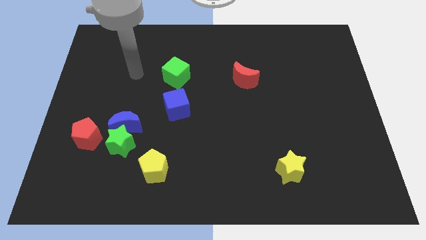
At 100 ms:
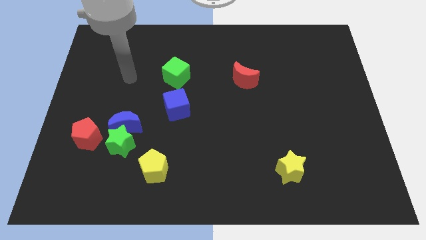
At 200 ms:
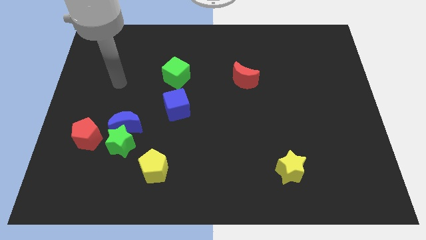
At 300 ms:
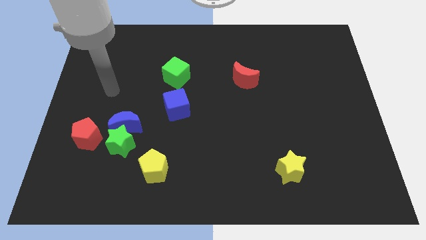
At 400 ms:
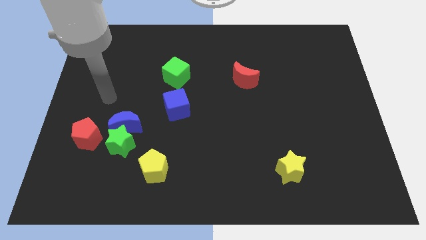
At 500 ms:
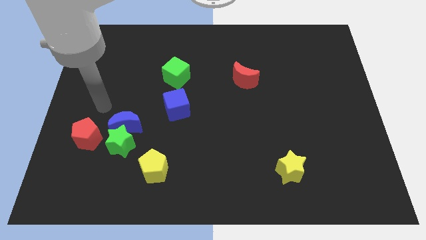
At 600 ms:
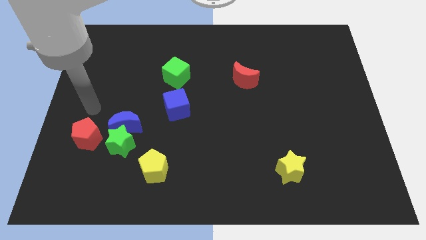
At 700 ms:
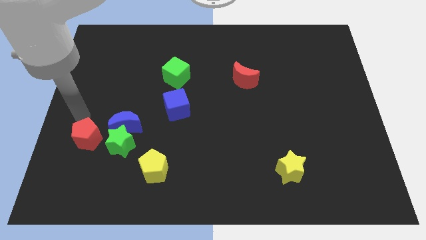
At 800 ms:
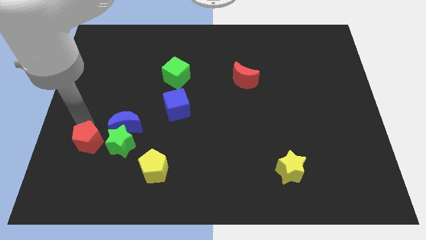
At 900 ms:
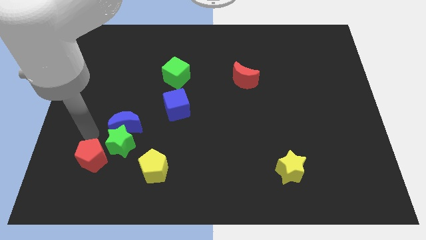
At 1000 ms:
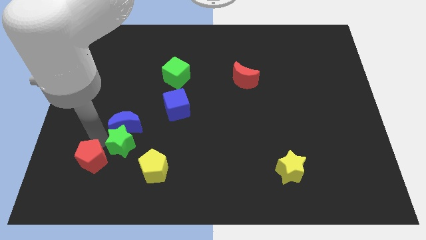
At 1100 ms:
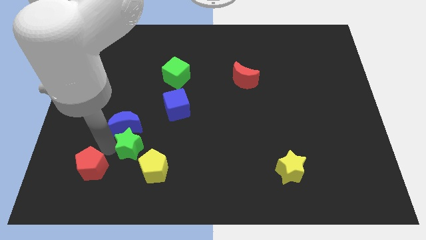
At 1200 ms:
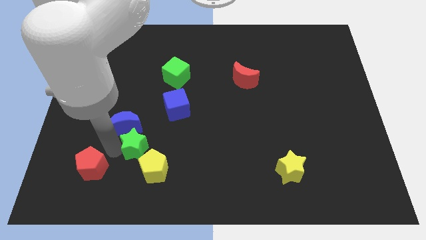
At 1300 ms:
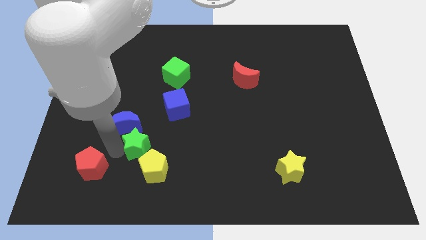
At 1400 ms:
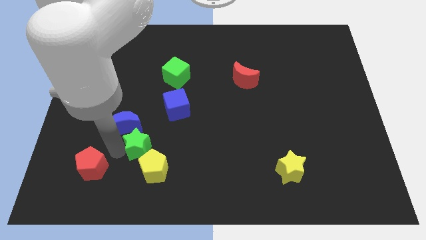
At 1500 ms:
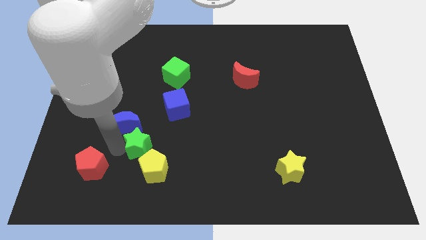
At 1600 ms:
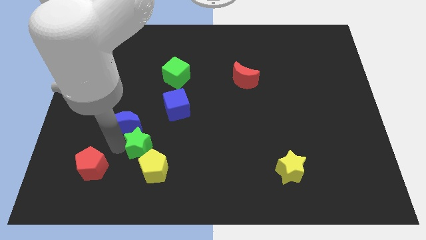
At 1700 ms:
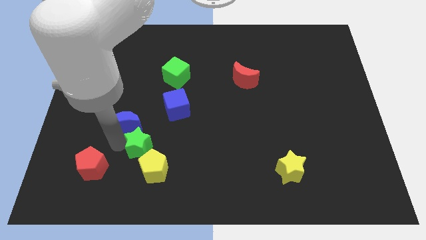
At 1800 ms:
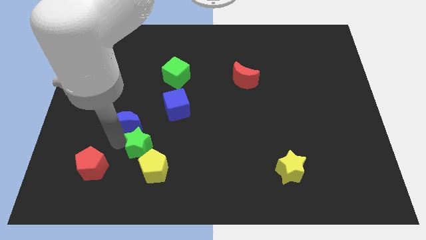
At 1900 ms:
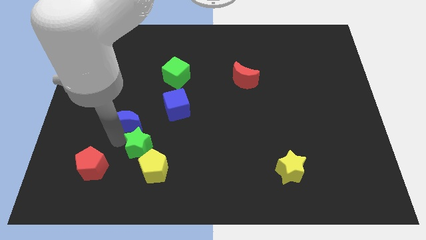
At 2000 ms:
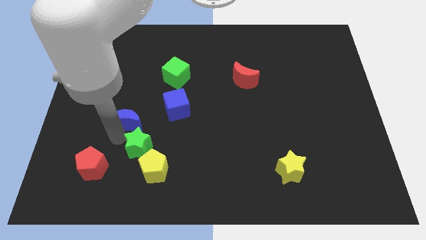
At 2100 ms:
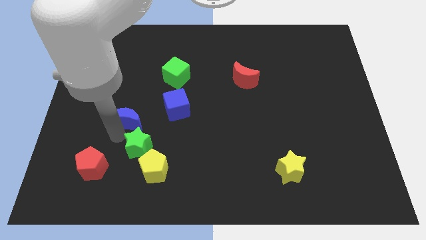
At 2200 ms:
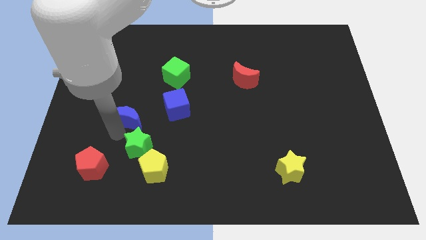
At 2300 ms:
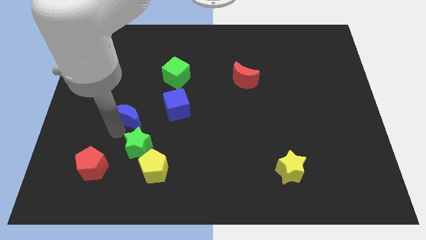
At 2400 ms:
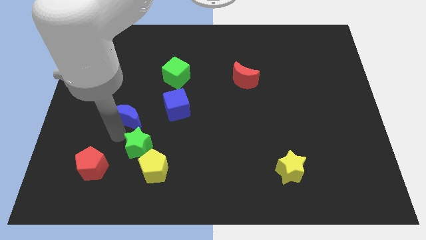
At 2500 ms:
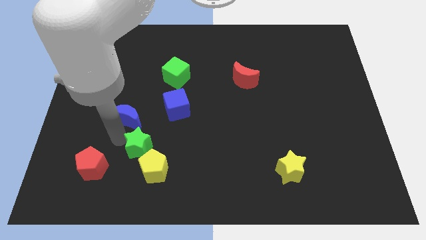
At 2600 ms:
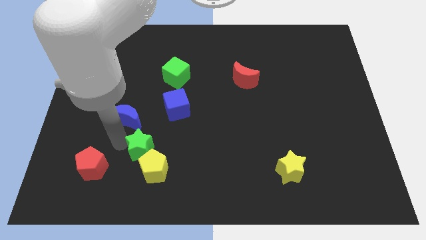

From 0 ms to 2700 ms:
separate the blue moon from the green star and red pentagon

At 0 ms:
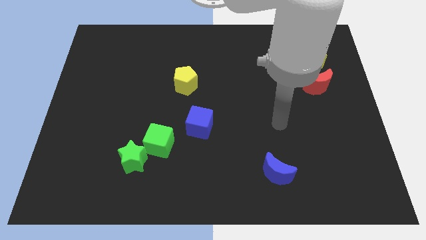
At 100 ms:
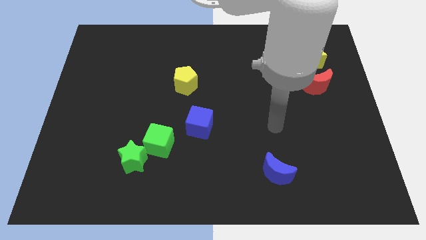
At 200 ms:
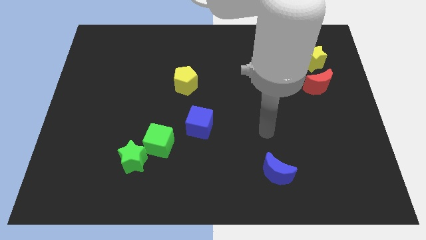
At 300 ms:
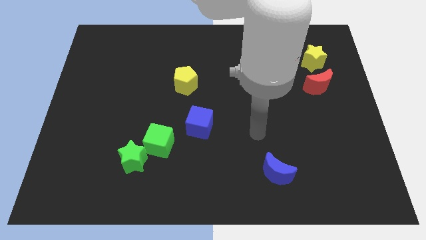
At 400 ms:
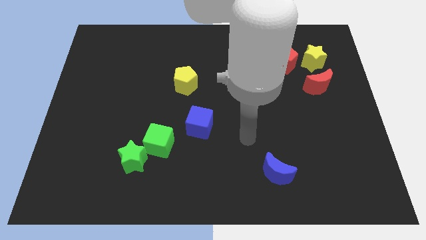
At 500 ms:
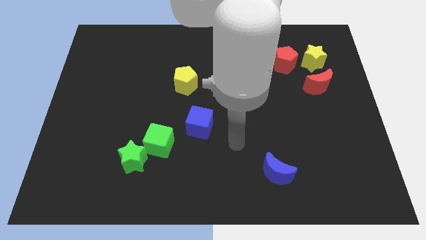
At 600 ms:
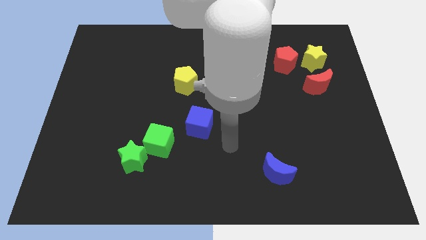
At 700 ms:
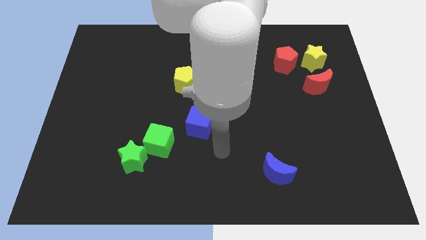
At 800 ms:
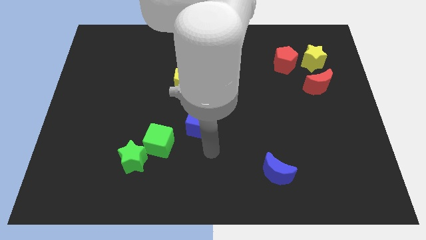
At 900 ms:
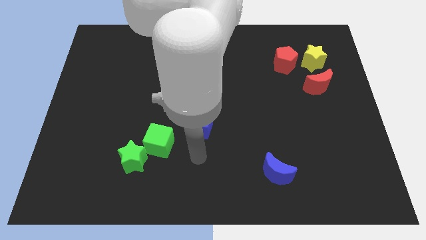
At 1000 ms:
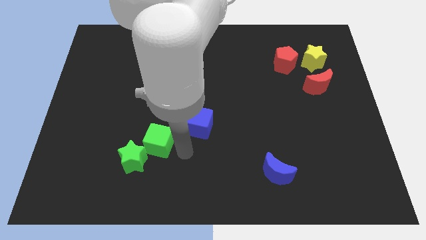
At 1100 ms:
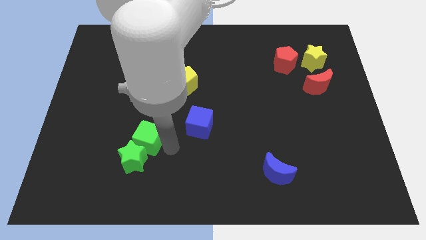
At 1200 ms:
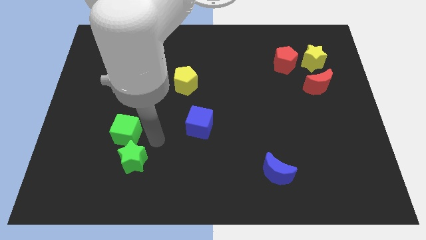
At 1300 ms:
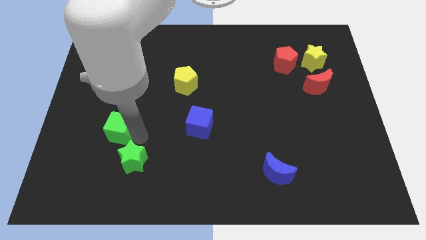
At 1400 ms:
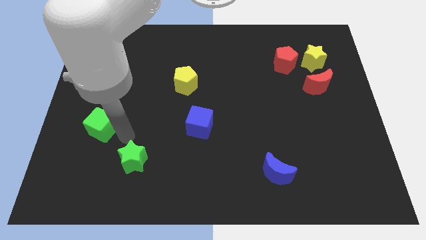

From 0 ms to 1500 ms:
pull the green star apart from the green cube

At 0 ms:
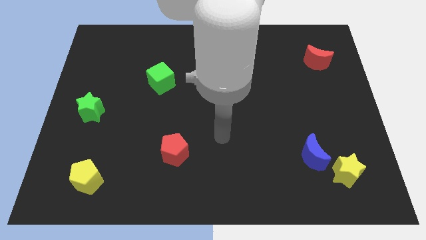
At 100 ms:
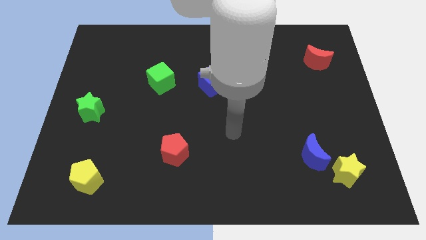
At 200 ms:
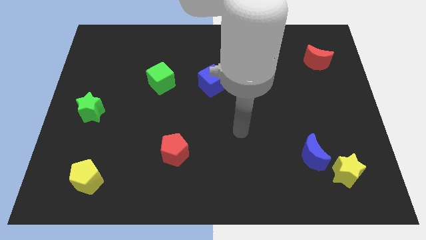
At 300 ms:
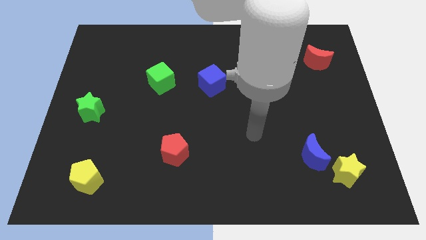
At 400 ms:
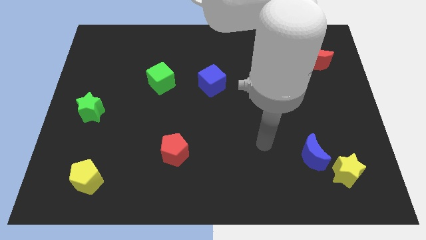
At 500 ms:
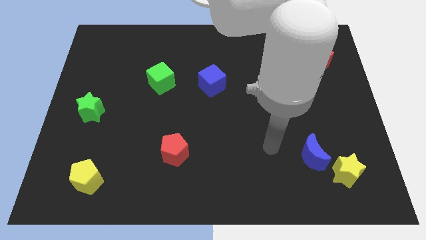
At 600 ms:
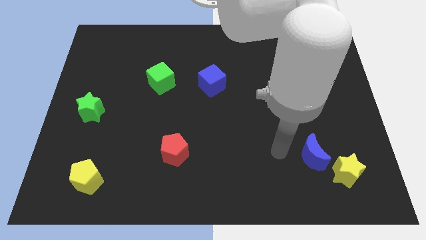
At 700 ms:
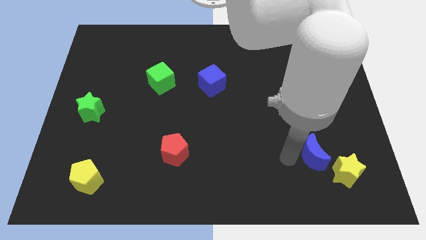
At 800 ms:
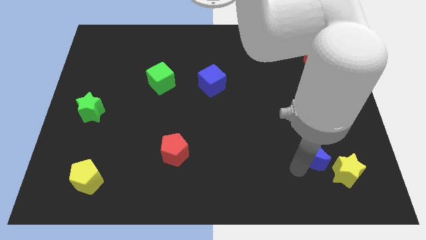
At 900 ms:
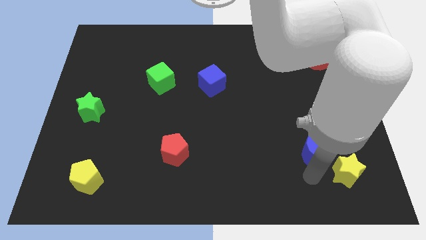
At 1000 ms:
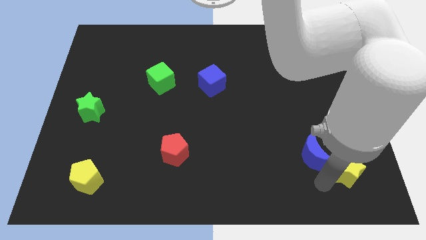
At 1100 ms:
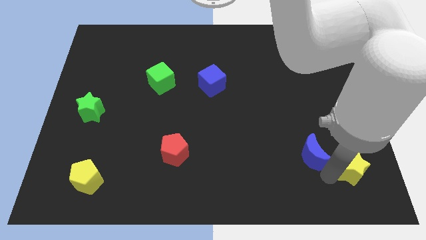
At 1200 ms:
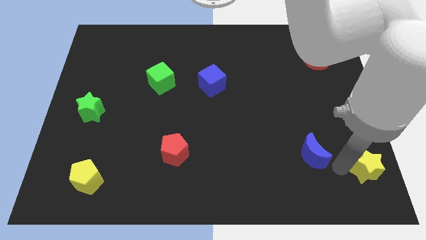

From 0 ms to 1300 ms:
move the blue moon away from the yellow star

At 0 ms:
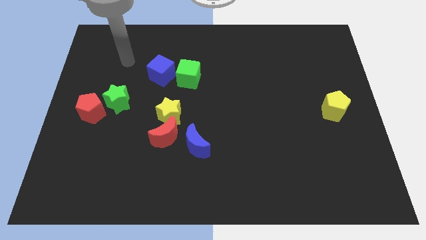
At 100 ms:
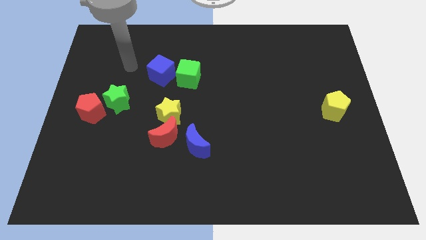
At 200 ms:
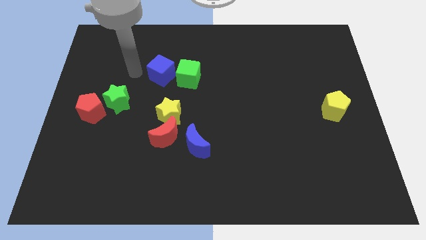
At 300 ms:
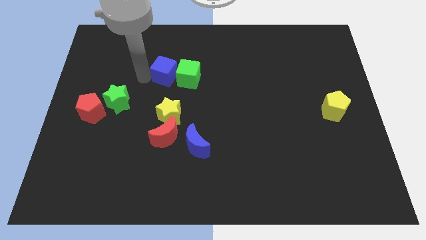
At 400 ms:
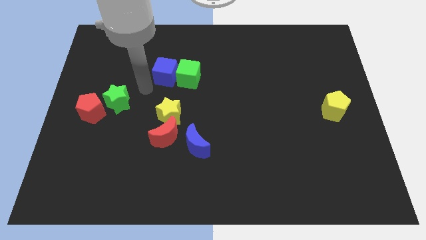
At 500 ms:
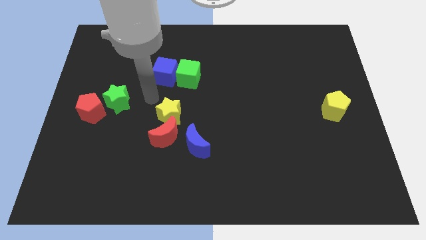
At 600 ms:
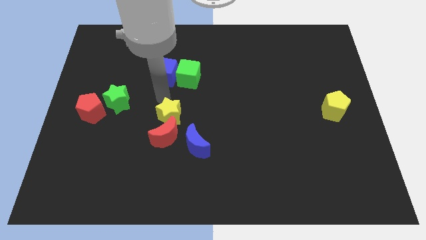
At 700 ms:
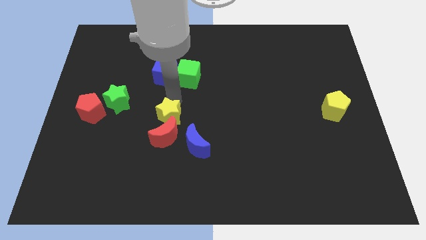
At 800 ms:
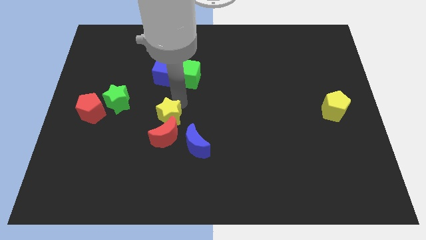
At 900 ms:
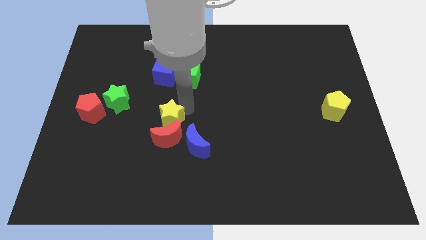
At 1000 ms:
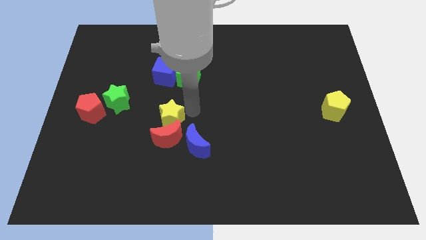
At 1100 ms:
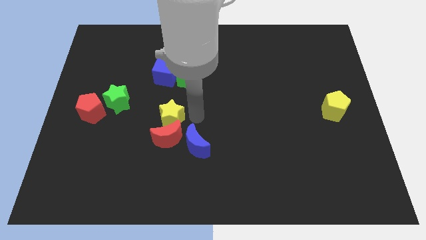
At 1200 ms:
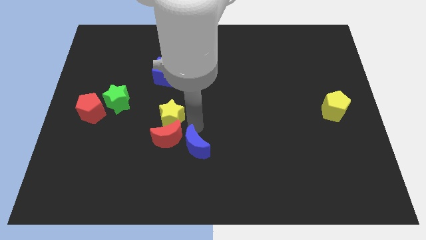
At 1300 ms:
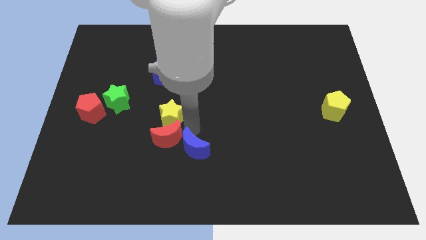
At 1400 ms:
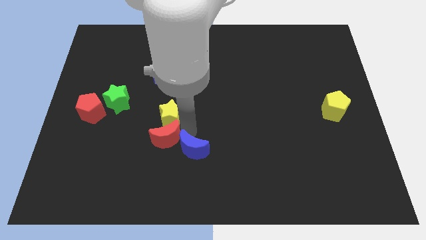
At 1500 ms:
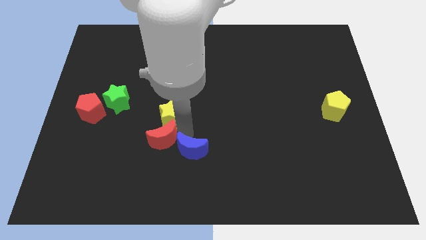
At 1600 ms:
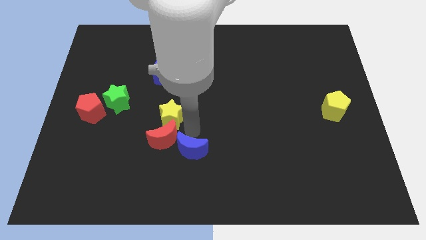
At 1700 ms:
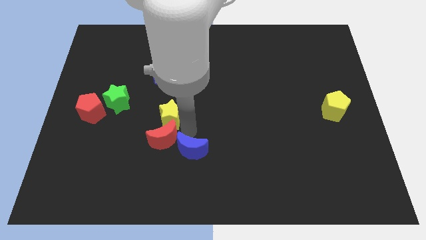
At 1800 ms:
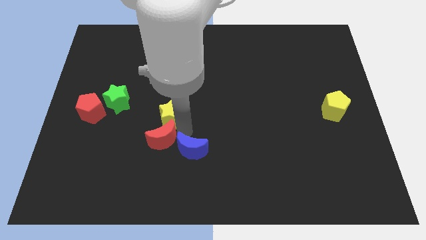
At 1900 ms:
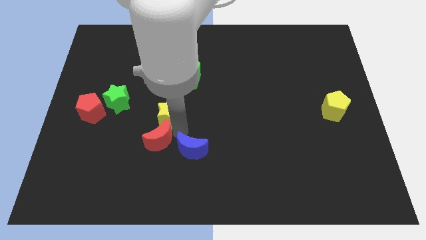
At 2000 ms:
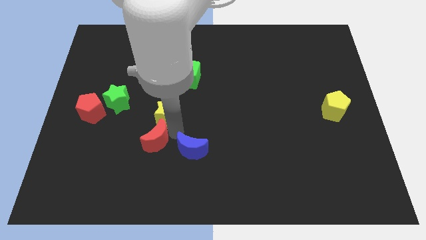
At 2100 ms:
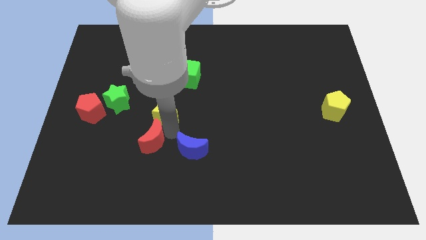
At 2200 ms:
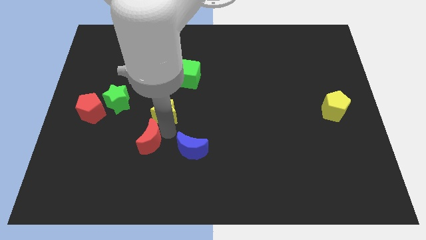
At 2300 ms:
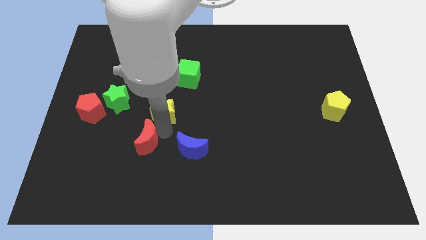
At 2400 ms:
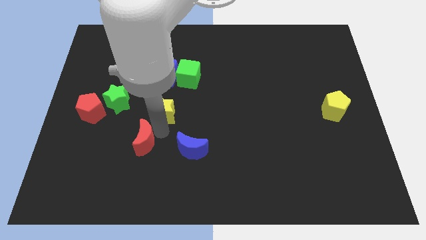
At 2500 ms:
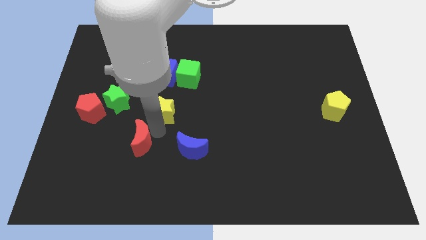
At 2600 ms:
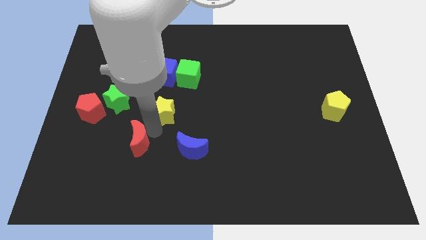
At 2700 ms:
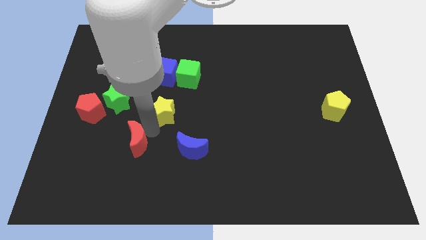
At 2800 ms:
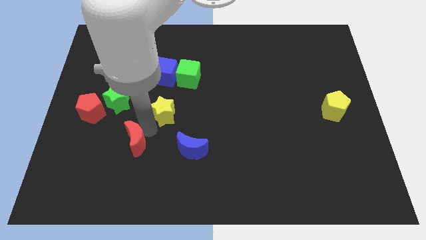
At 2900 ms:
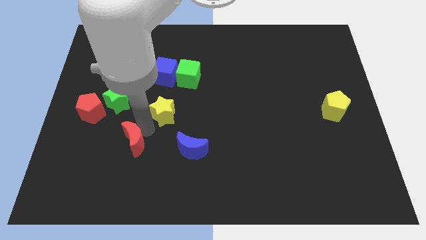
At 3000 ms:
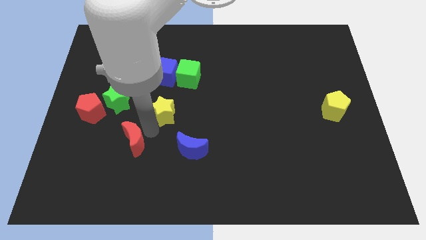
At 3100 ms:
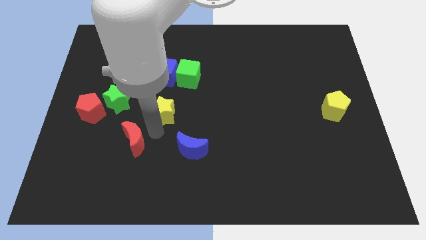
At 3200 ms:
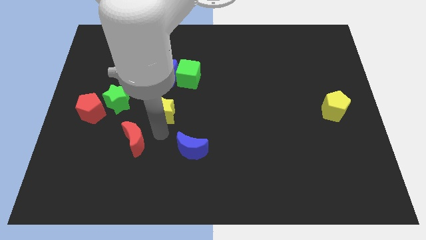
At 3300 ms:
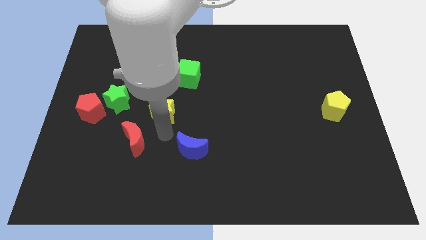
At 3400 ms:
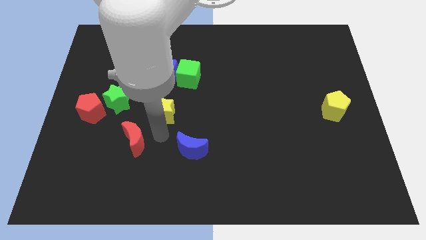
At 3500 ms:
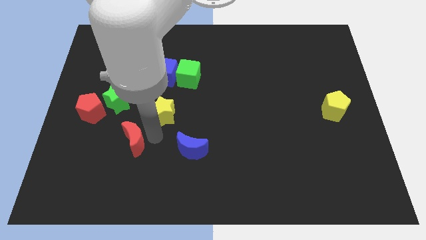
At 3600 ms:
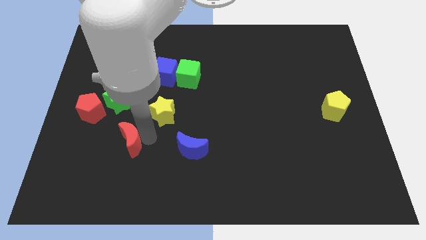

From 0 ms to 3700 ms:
pull the red moon apart from the yellow star and blue moon
